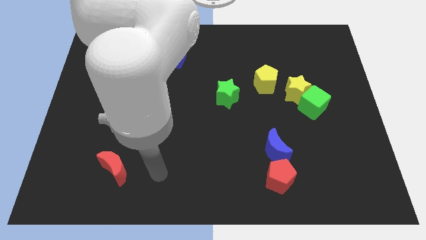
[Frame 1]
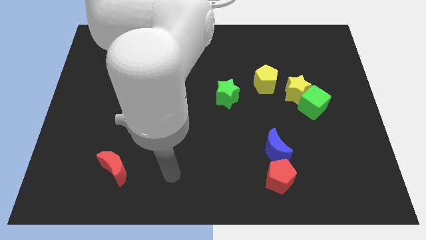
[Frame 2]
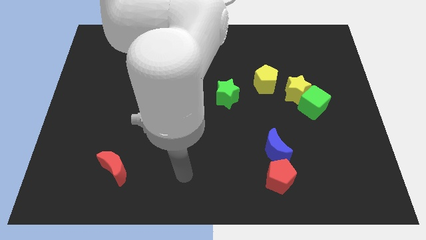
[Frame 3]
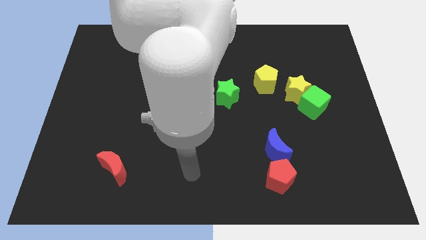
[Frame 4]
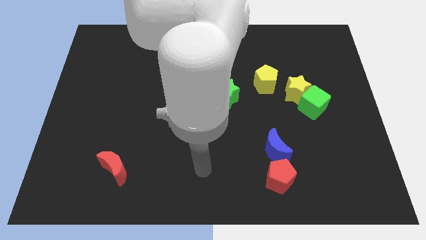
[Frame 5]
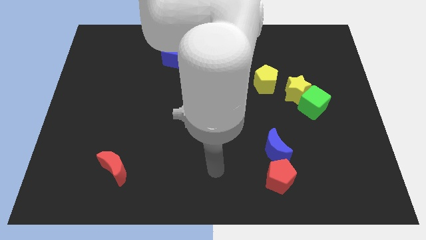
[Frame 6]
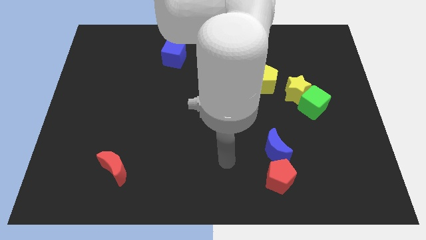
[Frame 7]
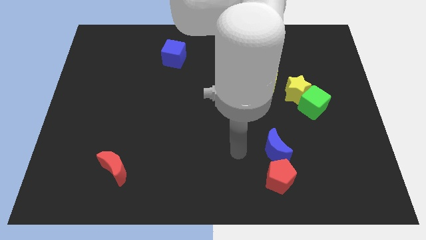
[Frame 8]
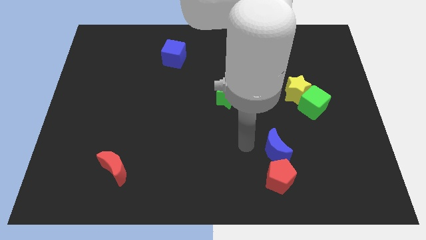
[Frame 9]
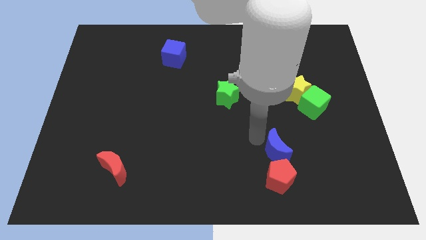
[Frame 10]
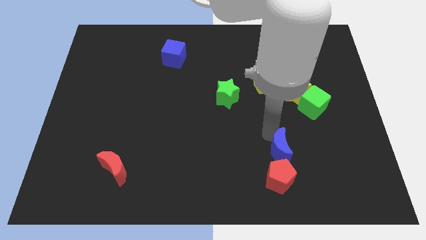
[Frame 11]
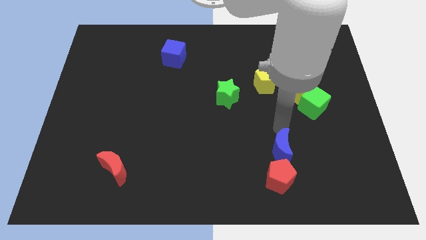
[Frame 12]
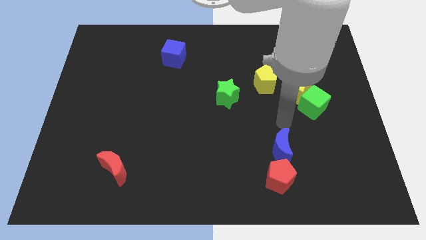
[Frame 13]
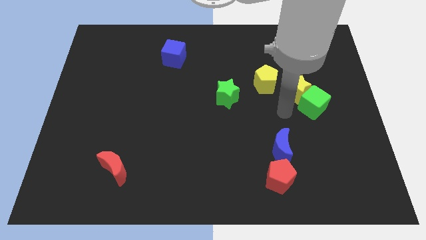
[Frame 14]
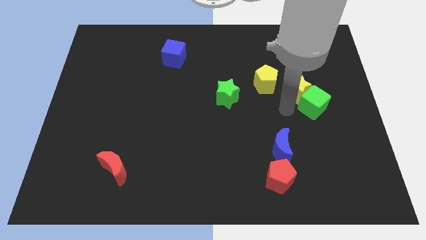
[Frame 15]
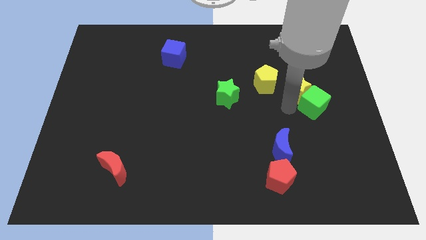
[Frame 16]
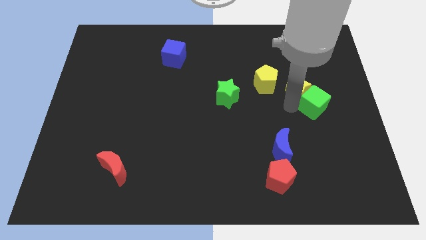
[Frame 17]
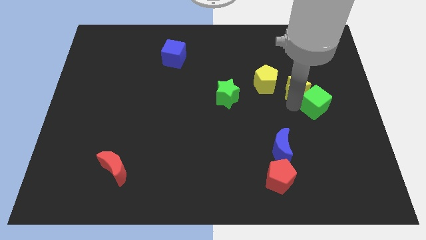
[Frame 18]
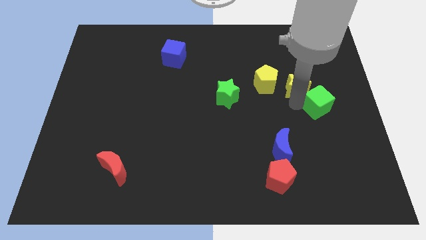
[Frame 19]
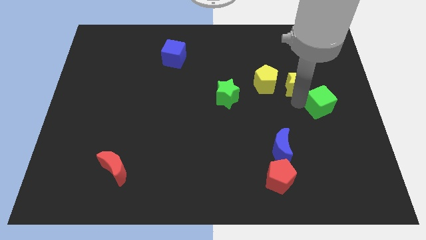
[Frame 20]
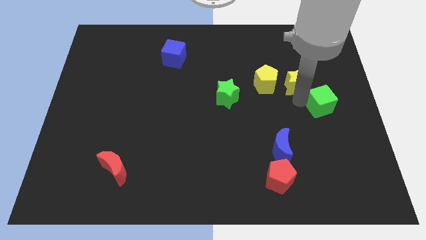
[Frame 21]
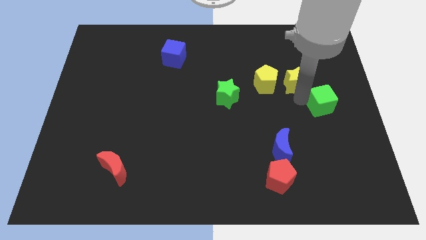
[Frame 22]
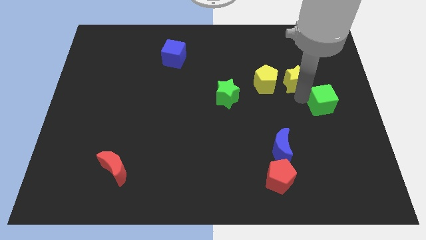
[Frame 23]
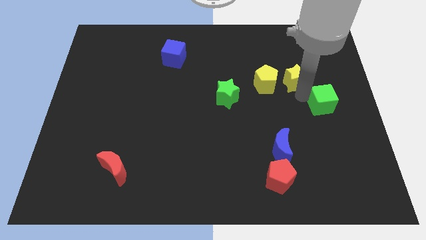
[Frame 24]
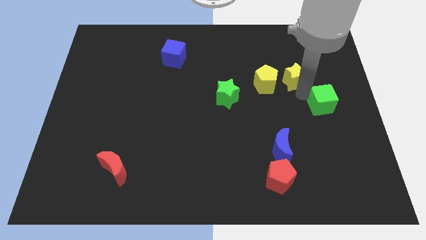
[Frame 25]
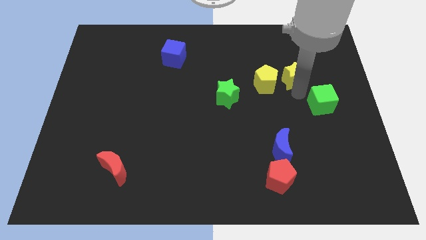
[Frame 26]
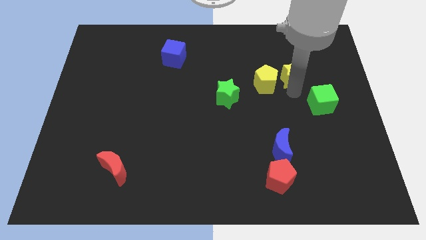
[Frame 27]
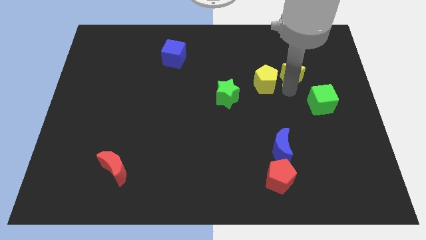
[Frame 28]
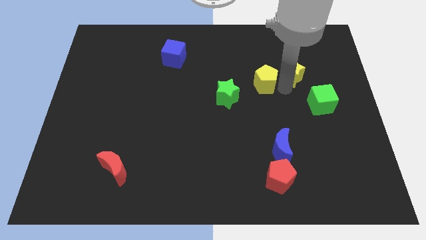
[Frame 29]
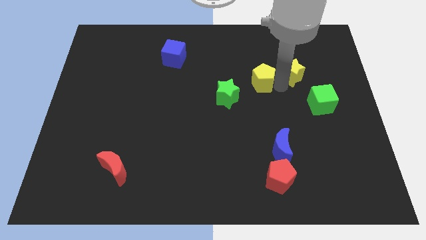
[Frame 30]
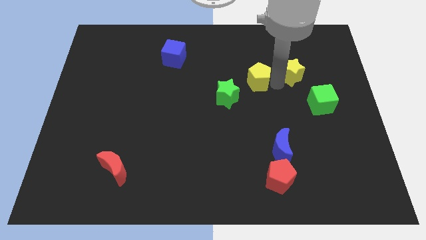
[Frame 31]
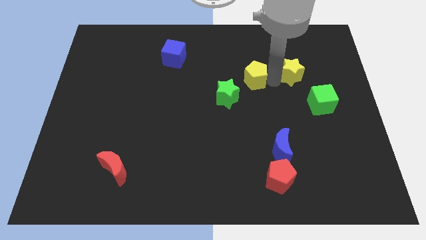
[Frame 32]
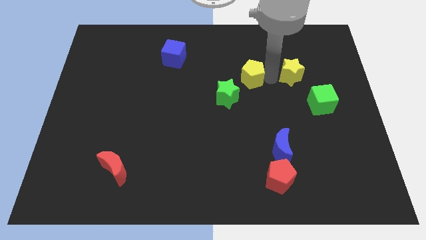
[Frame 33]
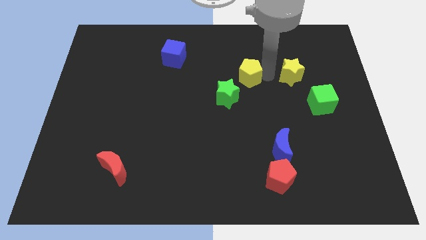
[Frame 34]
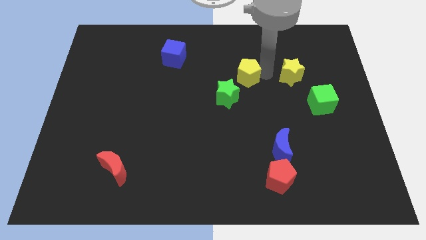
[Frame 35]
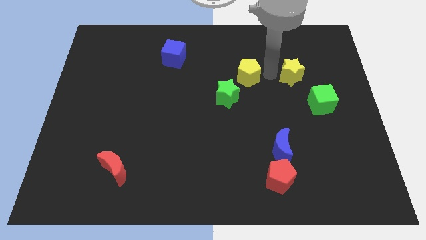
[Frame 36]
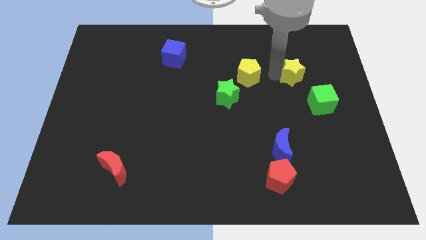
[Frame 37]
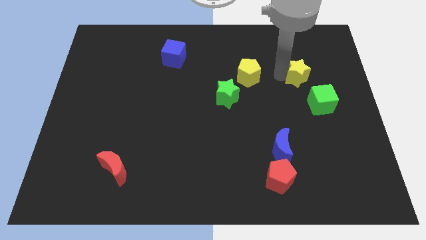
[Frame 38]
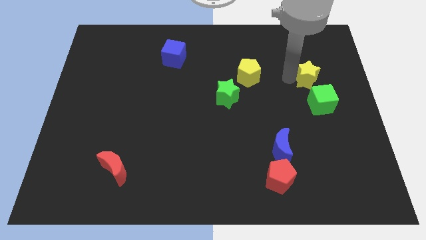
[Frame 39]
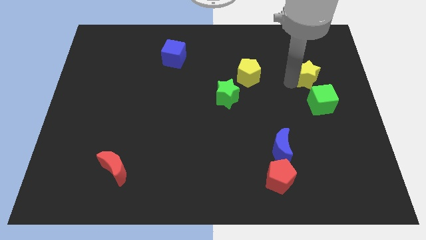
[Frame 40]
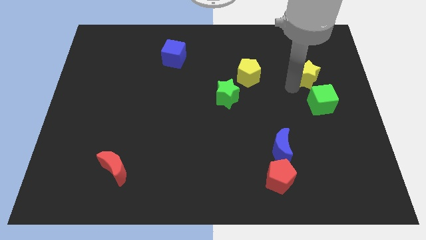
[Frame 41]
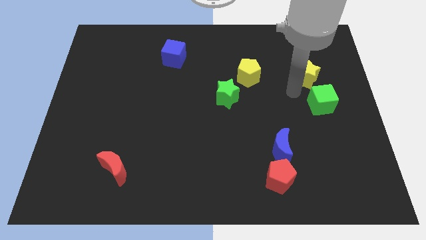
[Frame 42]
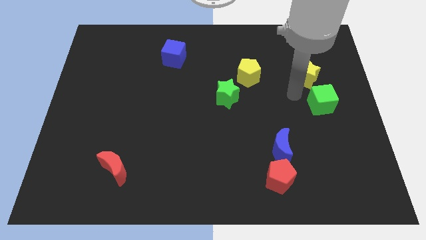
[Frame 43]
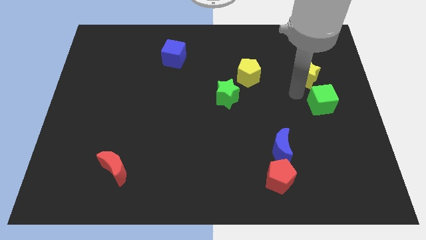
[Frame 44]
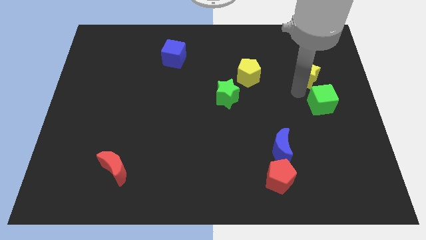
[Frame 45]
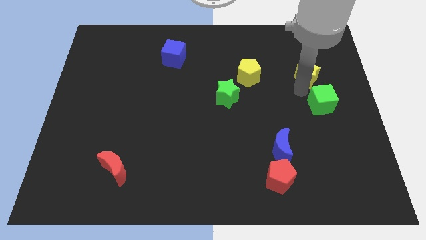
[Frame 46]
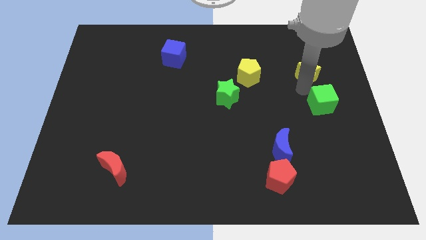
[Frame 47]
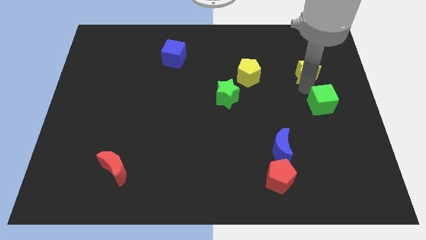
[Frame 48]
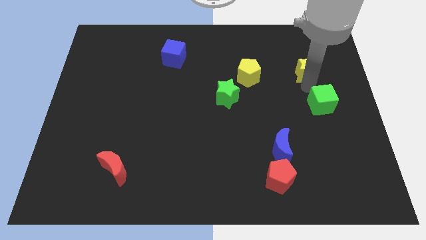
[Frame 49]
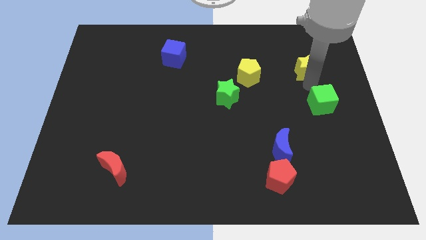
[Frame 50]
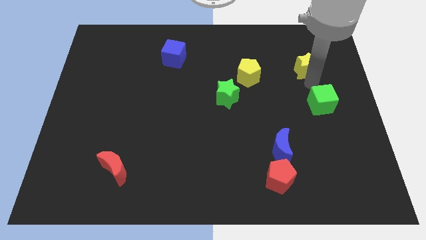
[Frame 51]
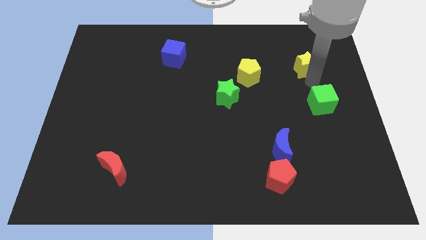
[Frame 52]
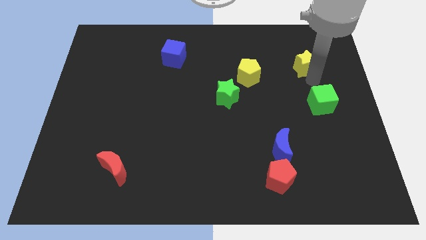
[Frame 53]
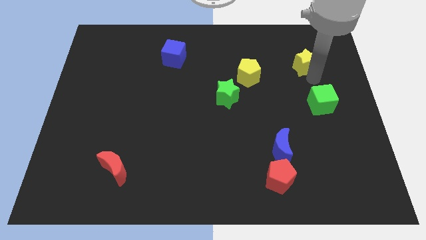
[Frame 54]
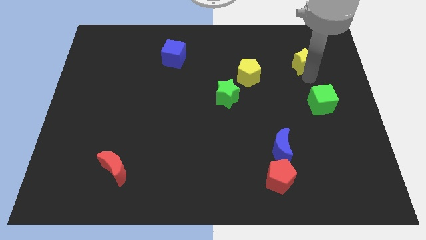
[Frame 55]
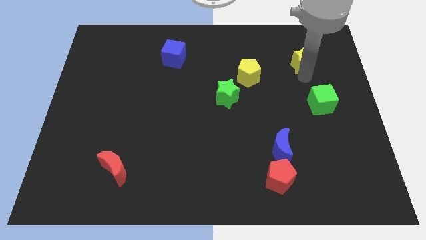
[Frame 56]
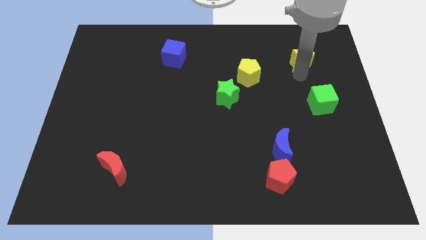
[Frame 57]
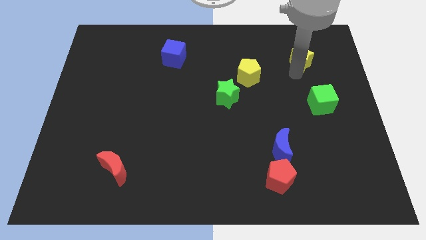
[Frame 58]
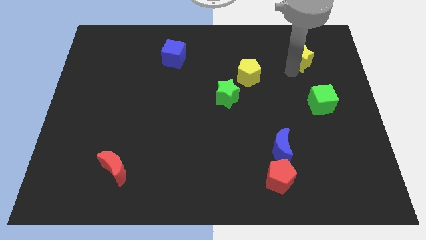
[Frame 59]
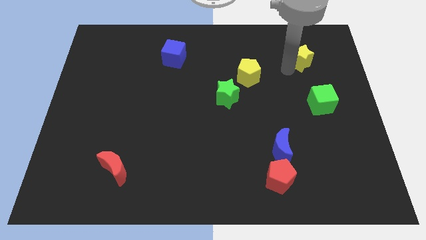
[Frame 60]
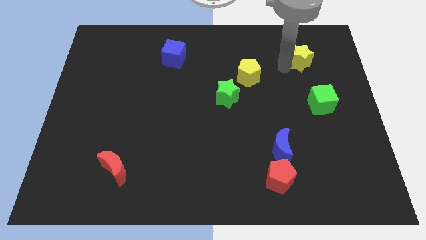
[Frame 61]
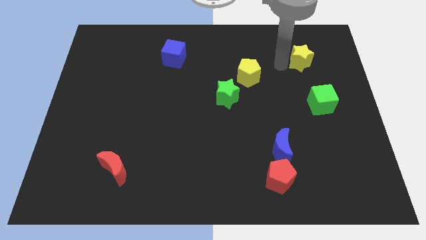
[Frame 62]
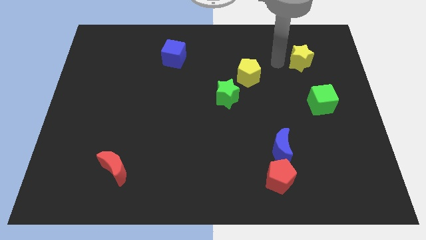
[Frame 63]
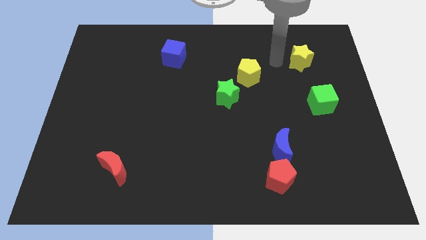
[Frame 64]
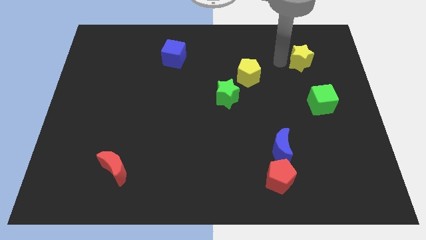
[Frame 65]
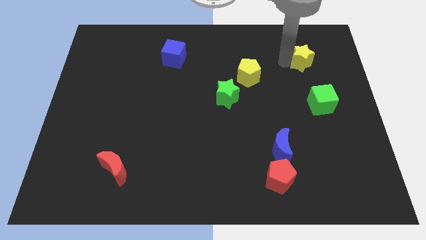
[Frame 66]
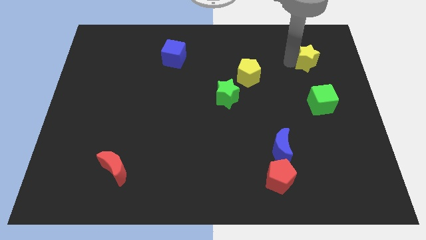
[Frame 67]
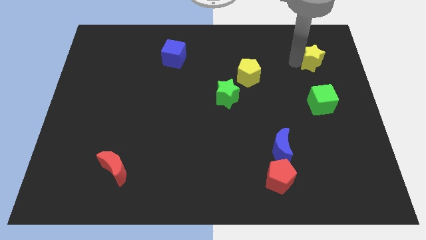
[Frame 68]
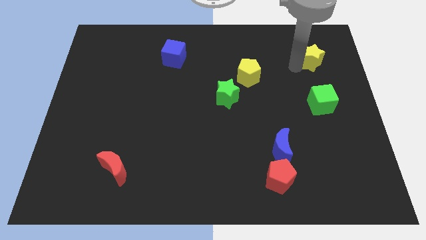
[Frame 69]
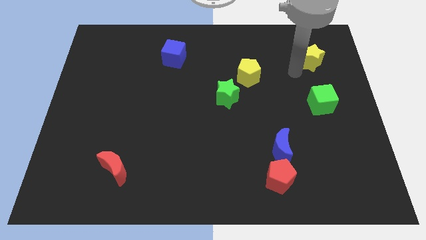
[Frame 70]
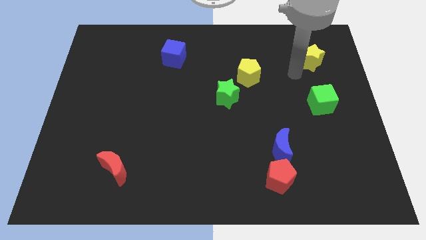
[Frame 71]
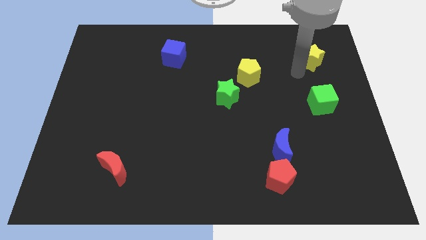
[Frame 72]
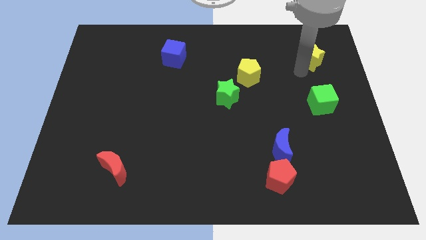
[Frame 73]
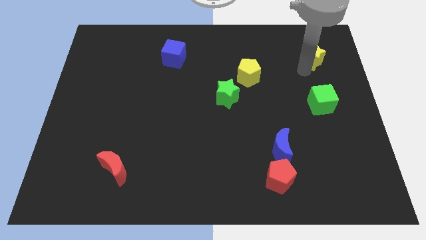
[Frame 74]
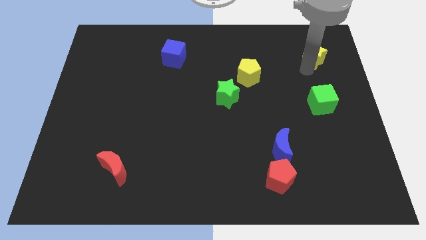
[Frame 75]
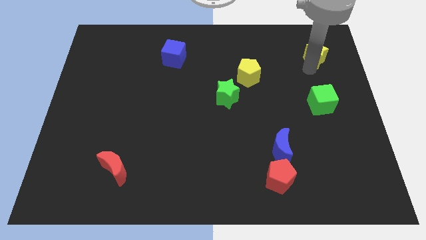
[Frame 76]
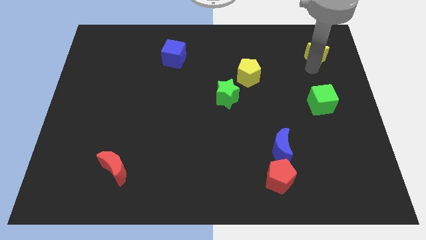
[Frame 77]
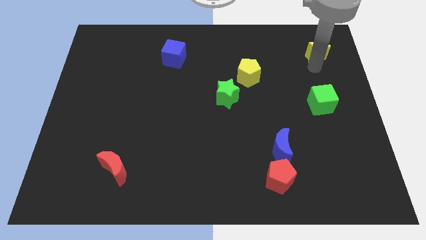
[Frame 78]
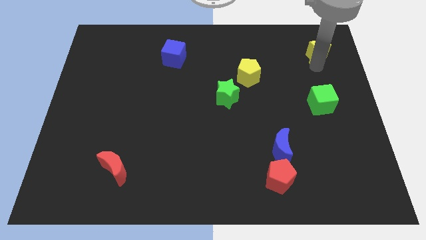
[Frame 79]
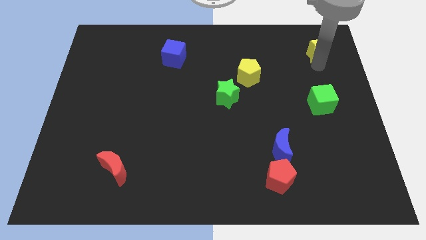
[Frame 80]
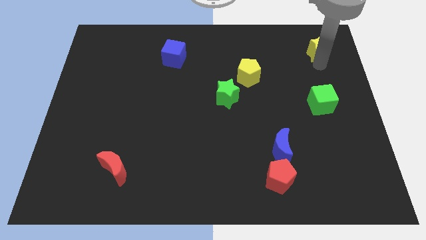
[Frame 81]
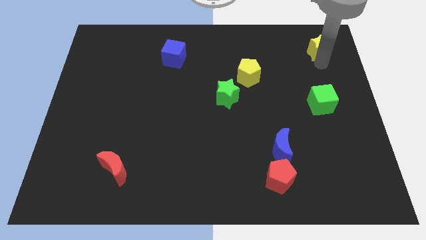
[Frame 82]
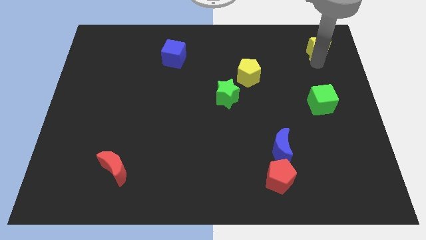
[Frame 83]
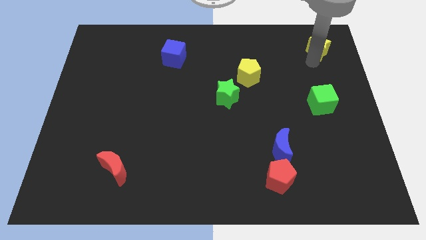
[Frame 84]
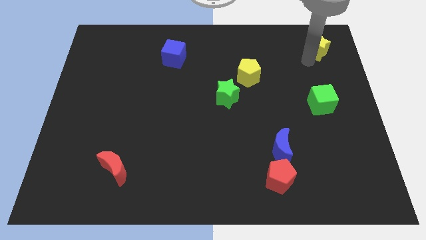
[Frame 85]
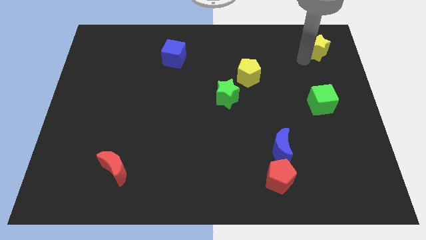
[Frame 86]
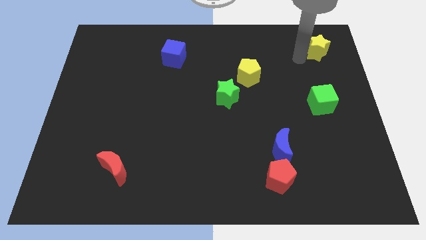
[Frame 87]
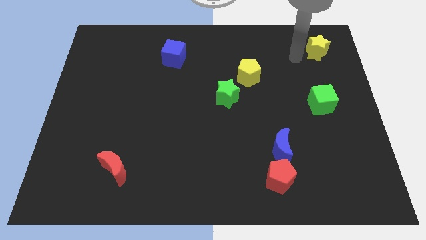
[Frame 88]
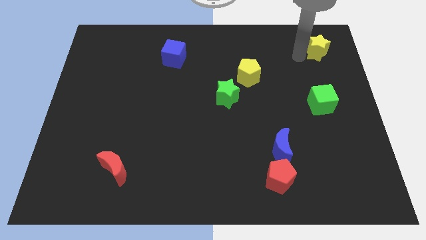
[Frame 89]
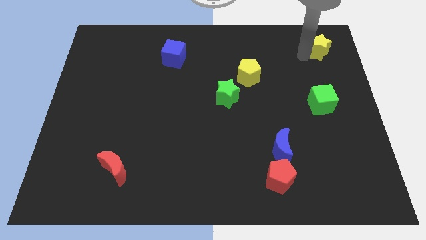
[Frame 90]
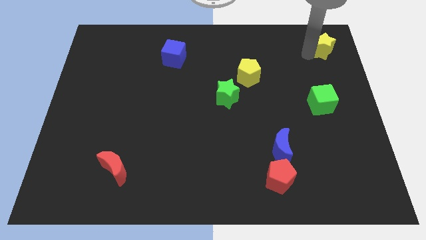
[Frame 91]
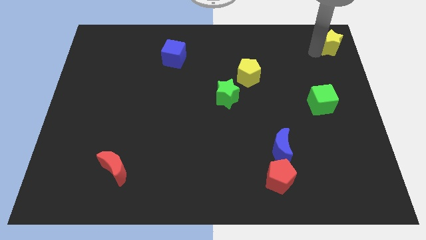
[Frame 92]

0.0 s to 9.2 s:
put the yellow star to the top right
